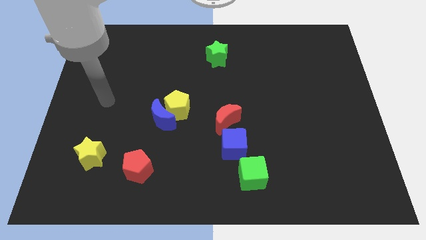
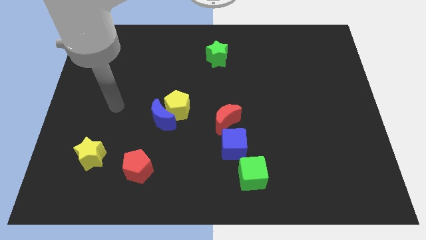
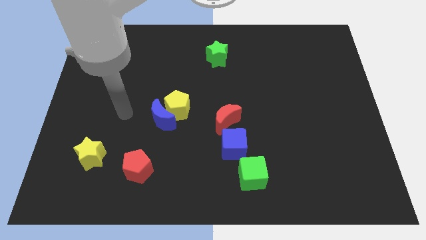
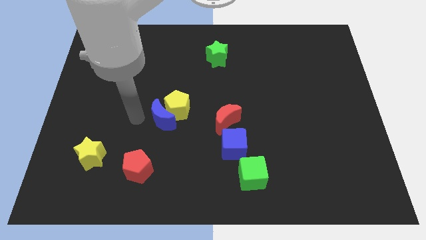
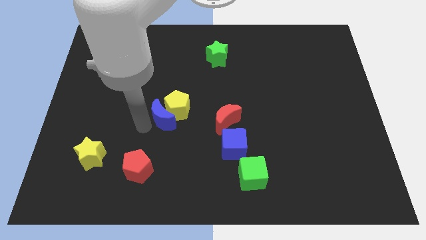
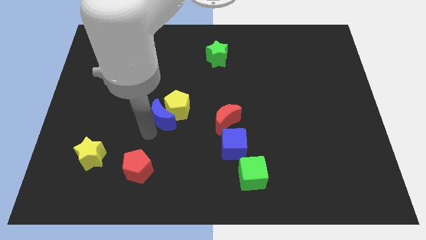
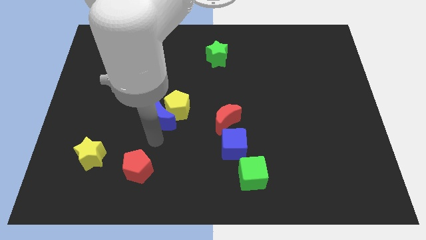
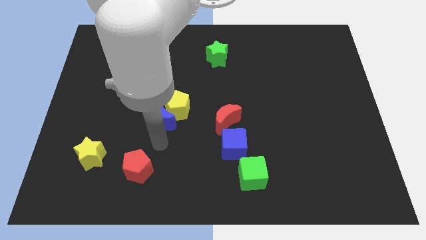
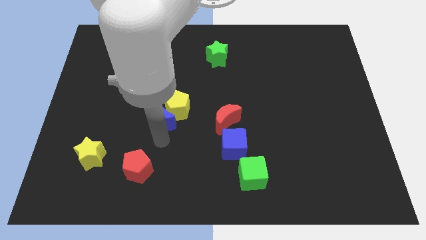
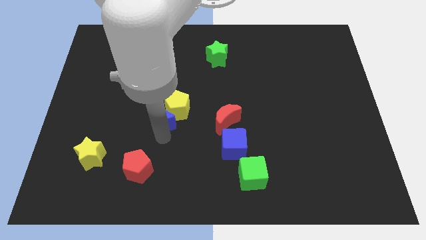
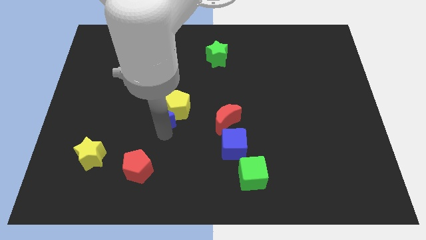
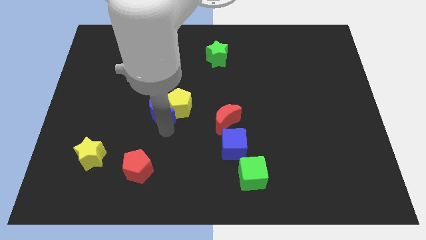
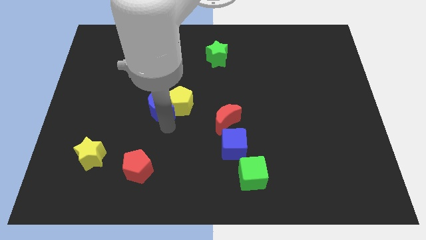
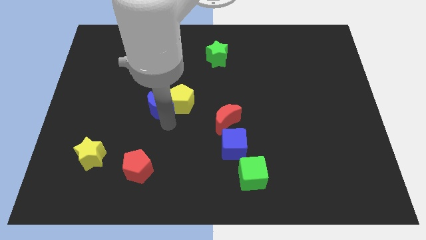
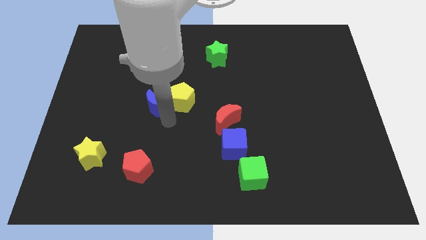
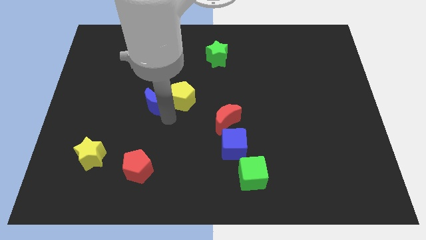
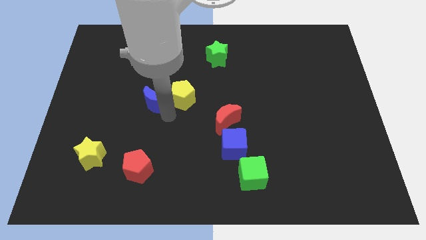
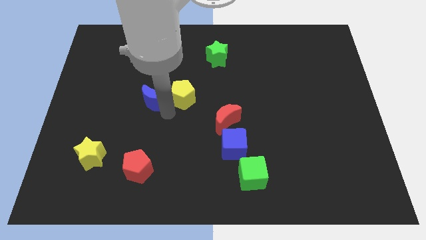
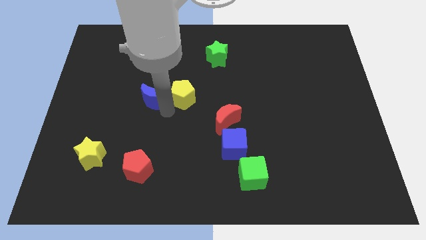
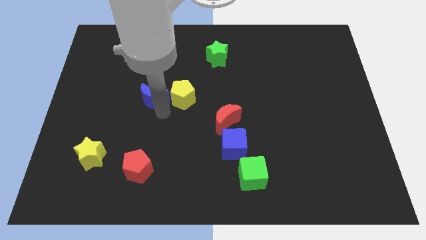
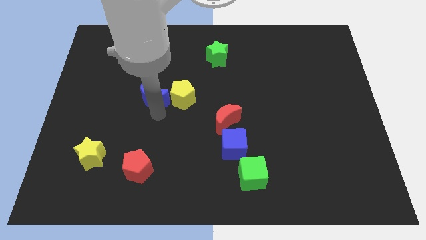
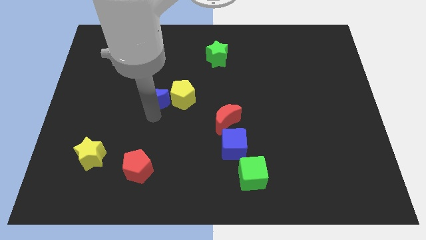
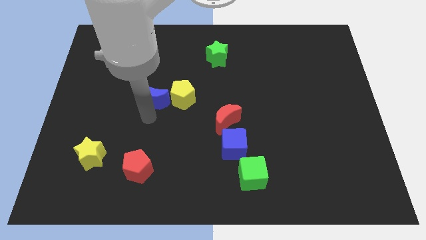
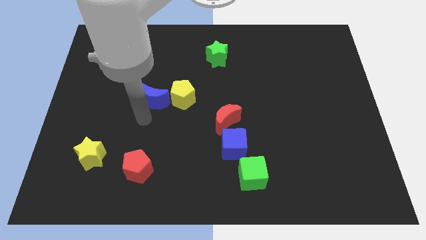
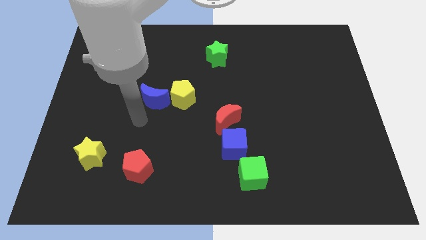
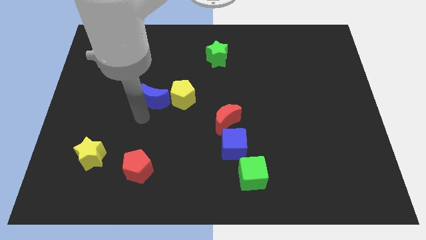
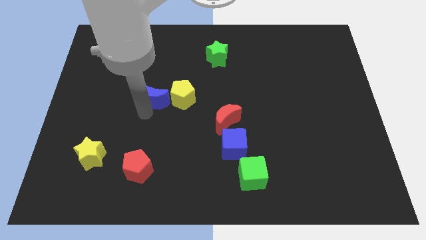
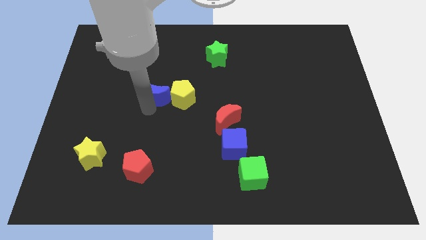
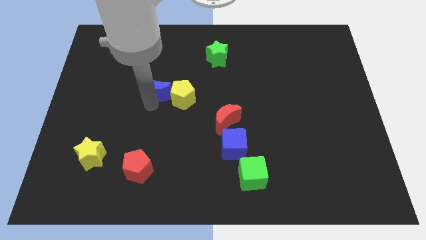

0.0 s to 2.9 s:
move the blue moon upwards slightly

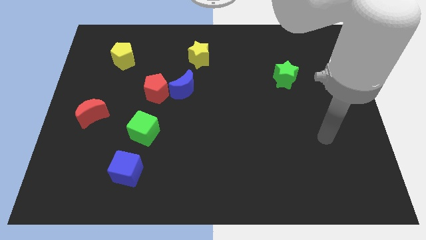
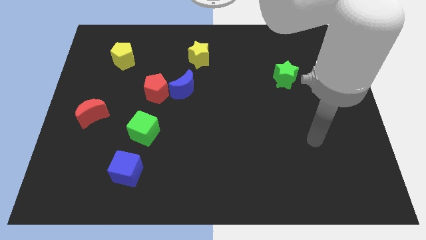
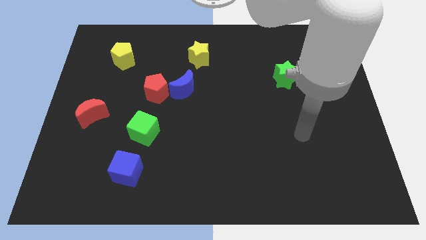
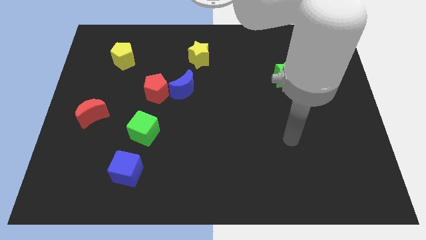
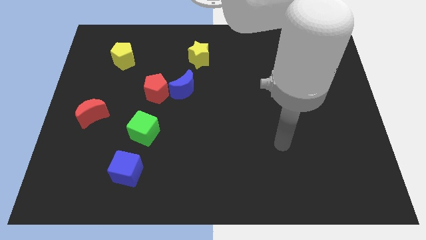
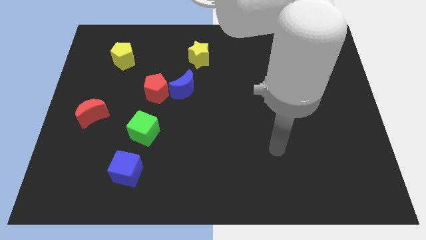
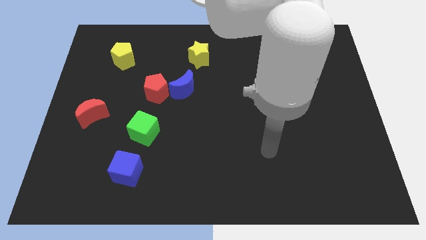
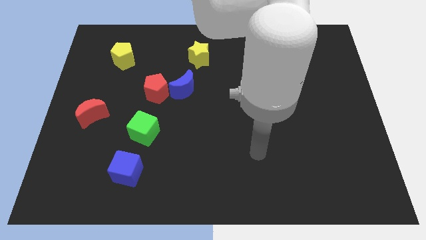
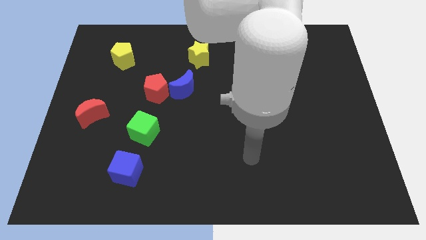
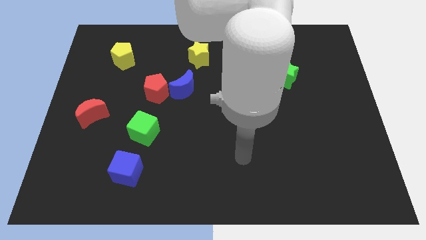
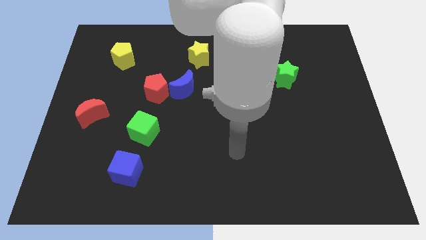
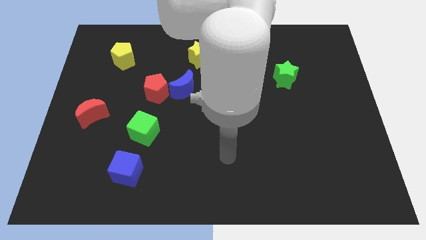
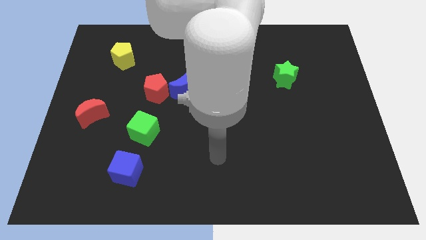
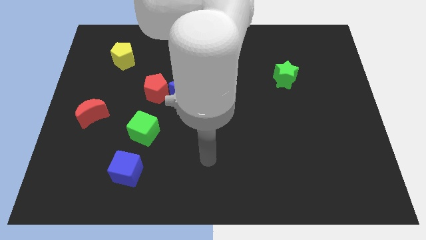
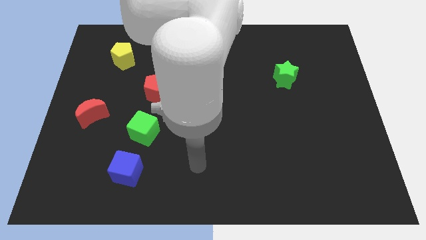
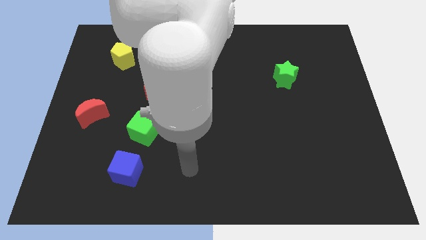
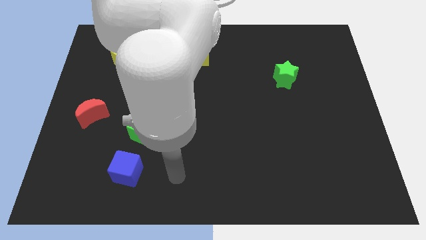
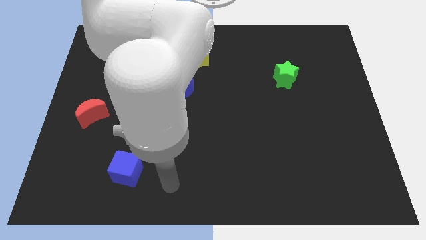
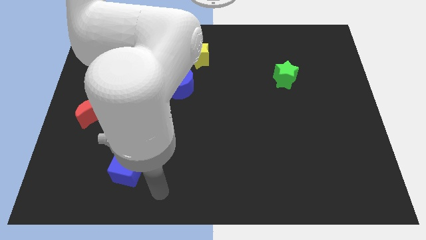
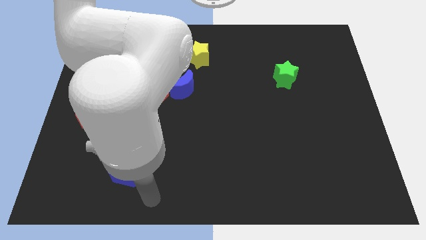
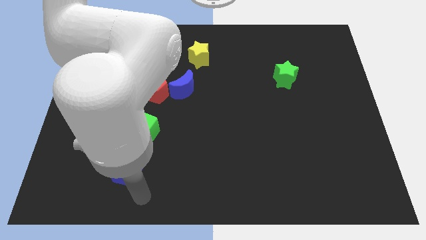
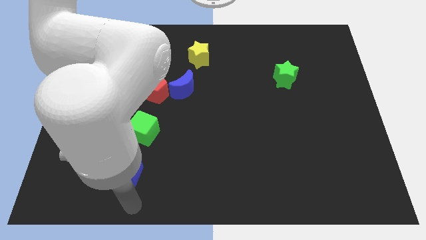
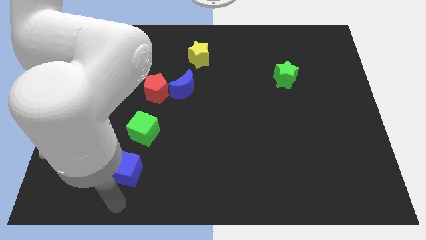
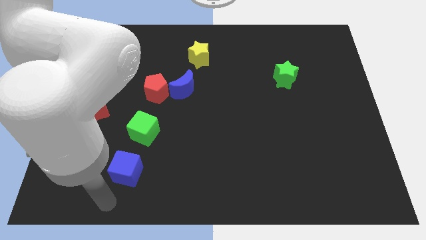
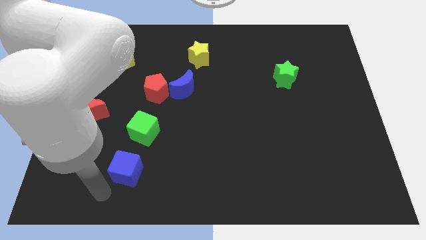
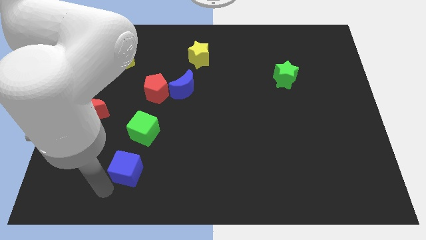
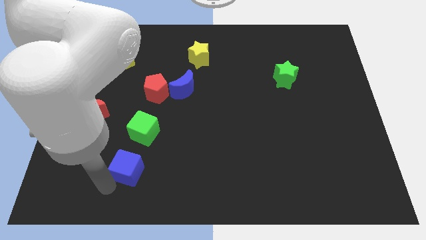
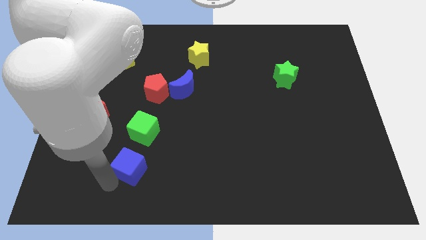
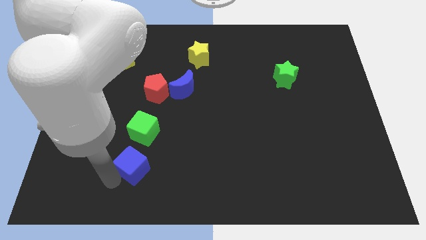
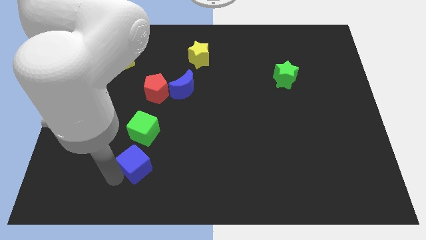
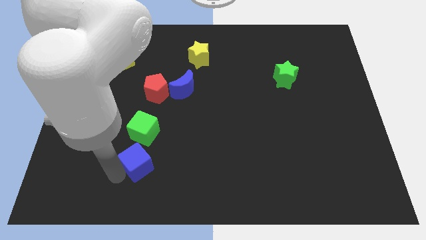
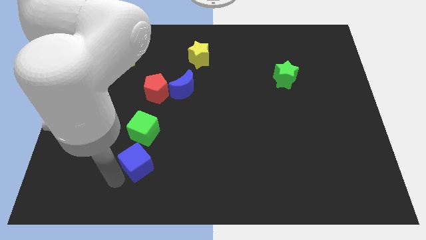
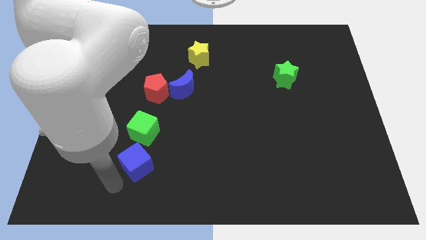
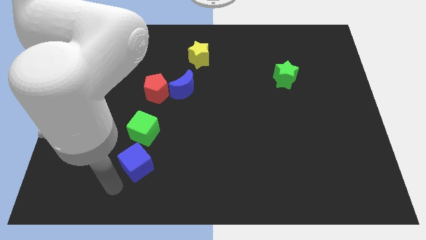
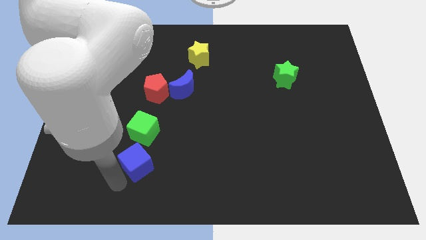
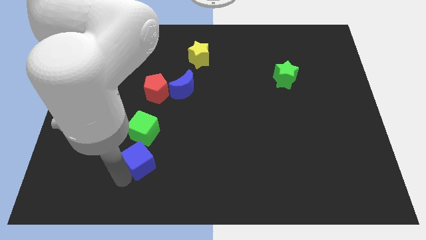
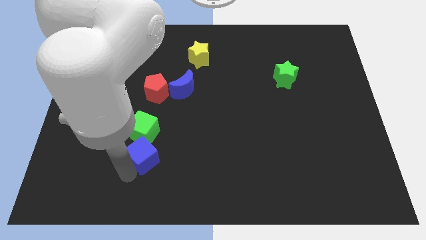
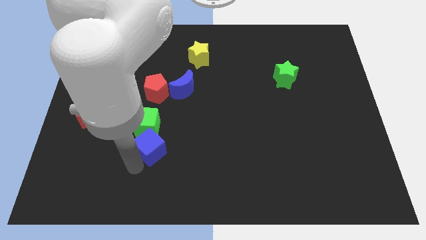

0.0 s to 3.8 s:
slightly move the blue cube upwards and to the right

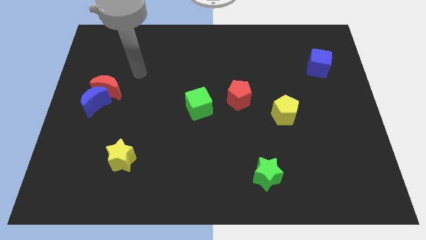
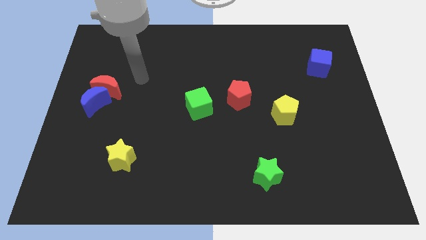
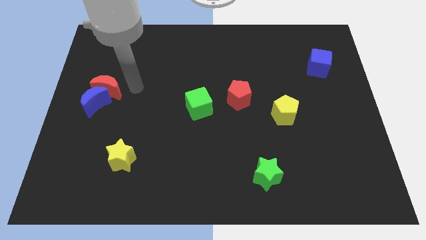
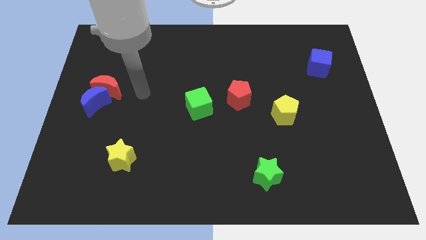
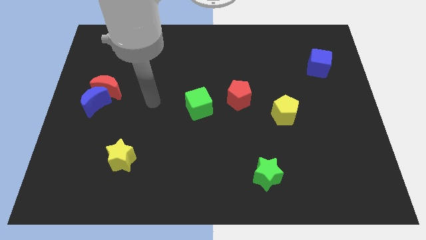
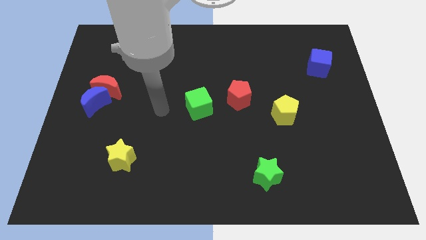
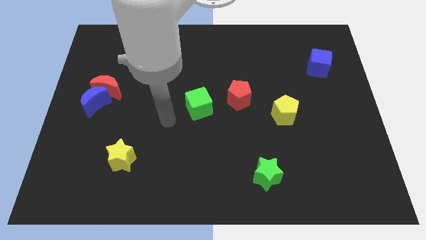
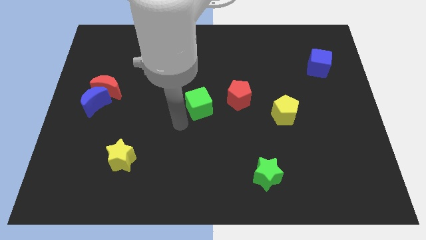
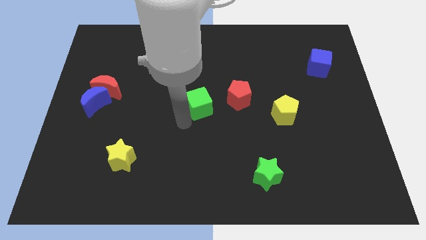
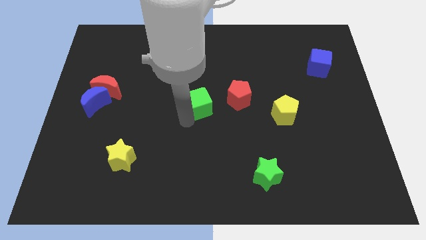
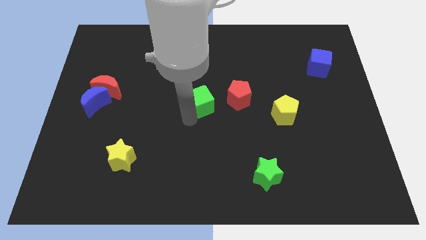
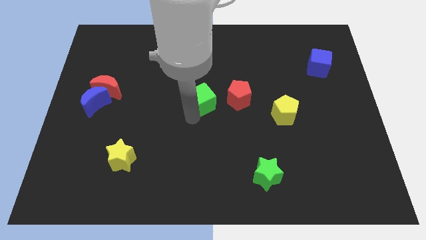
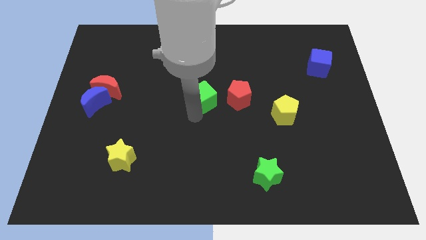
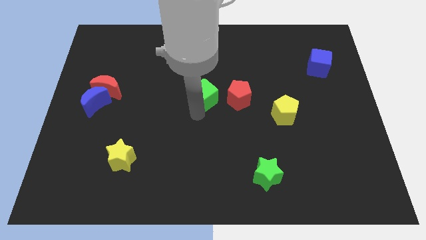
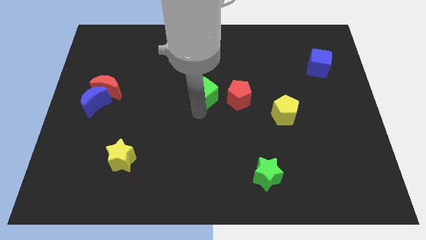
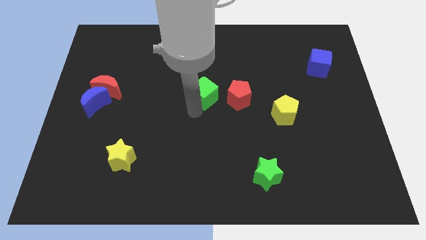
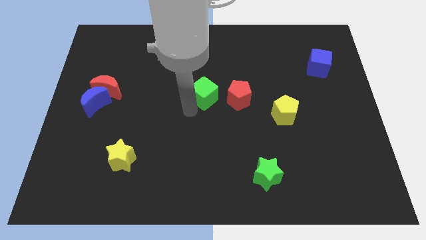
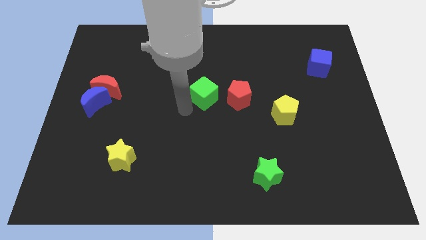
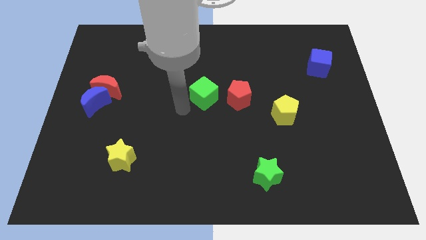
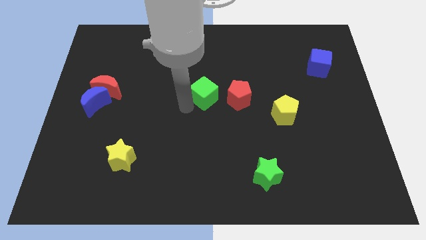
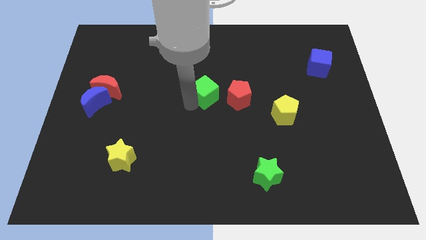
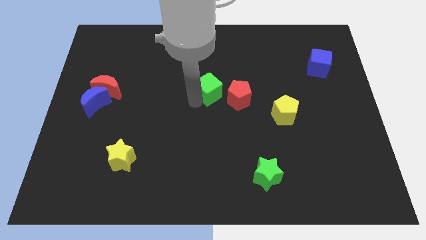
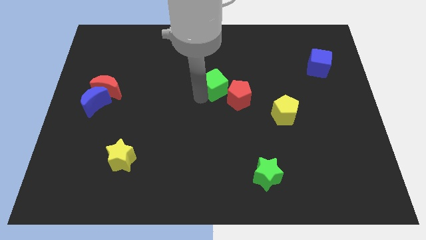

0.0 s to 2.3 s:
push the green cube slightly upwards and then right
